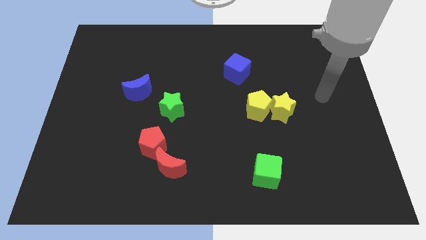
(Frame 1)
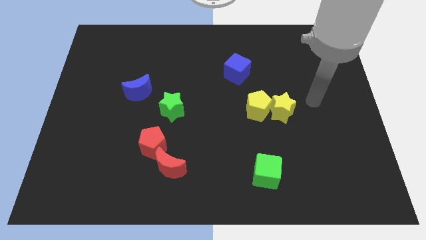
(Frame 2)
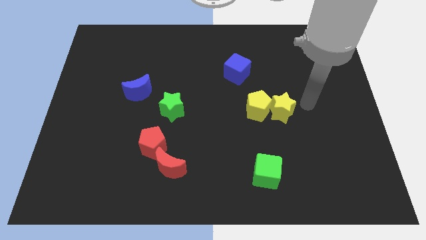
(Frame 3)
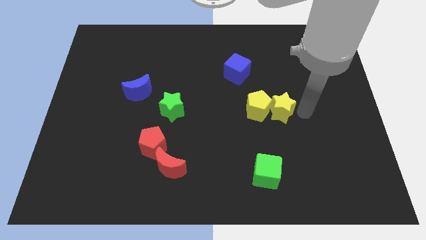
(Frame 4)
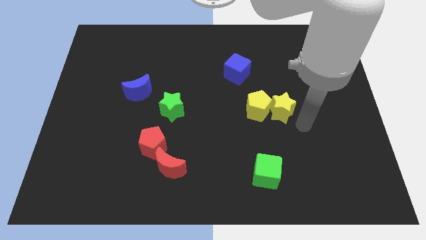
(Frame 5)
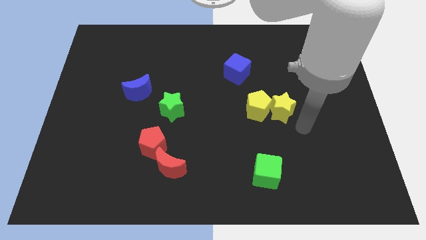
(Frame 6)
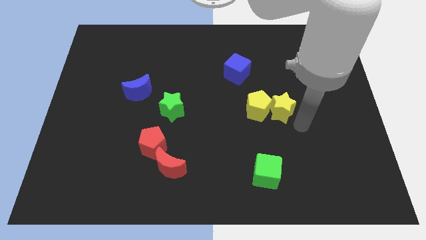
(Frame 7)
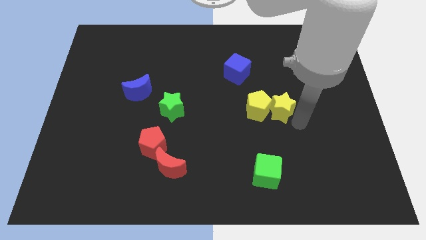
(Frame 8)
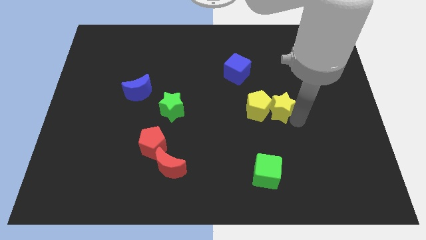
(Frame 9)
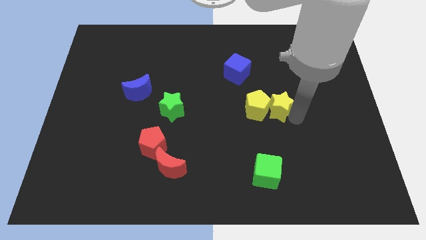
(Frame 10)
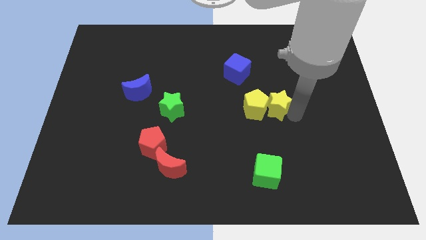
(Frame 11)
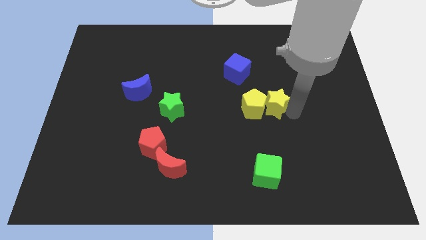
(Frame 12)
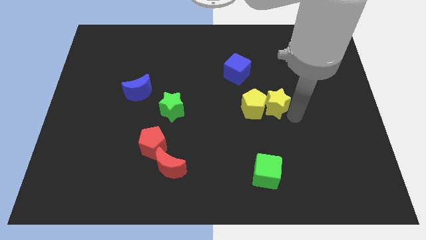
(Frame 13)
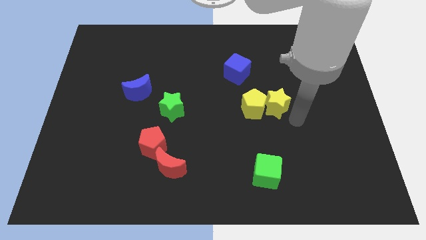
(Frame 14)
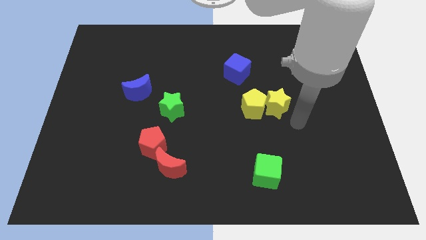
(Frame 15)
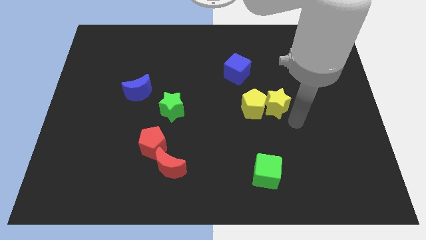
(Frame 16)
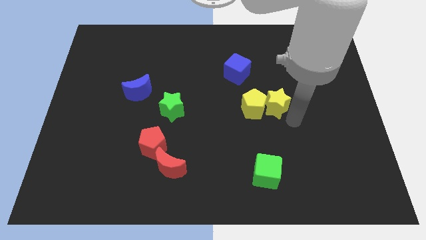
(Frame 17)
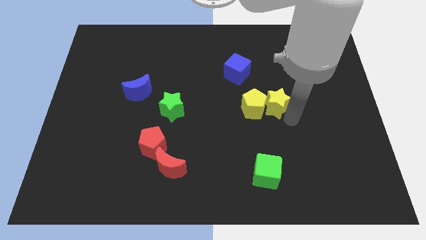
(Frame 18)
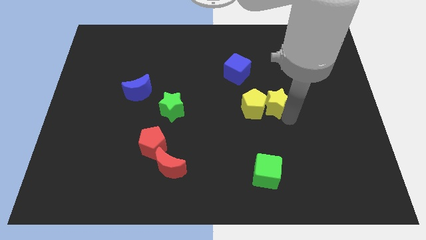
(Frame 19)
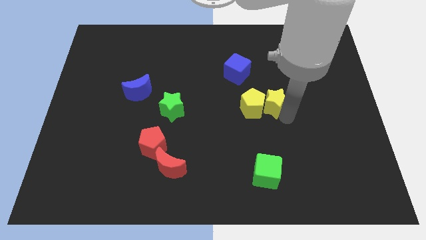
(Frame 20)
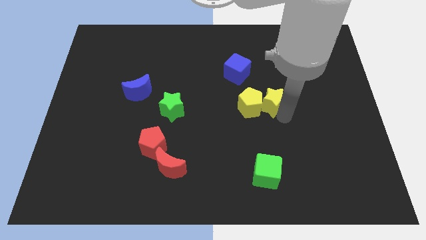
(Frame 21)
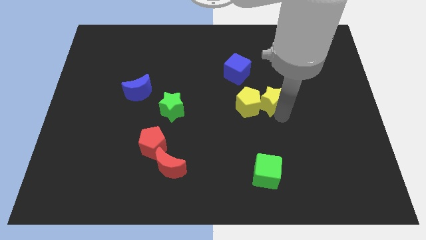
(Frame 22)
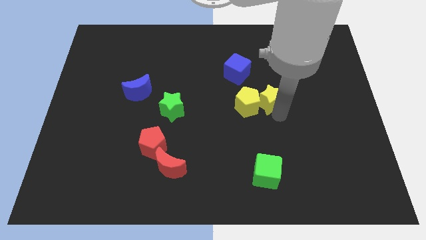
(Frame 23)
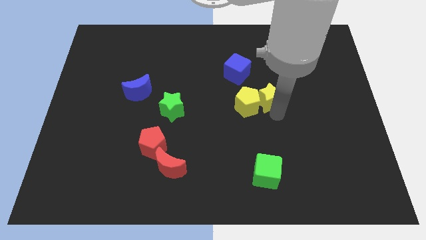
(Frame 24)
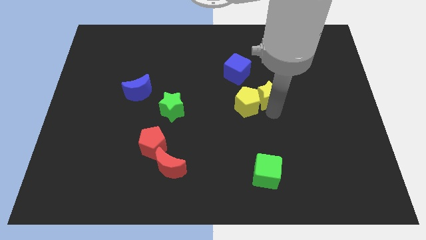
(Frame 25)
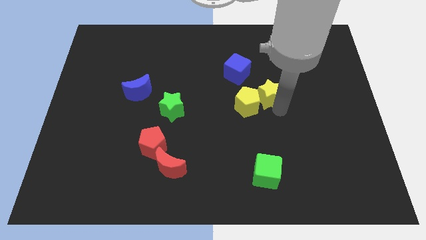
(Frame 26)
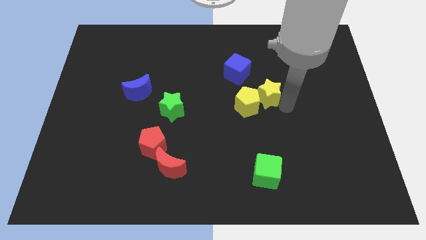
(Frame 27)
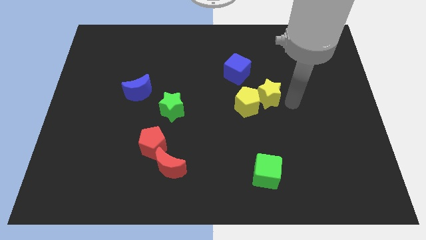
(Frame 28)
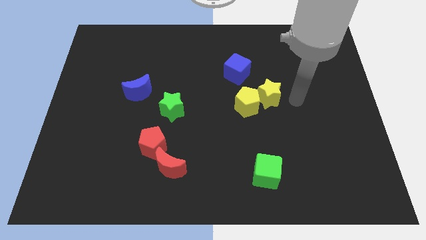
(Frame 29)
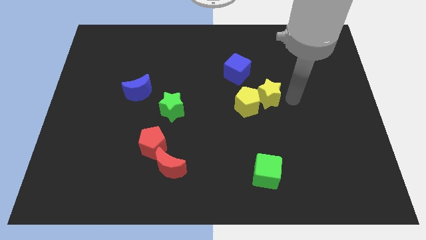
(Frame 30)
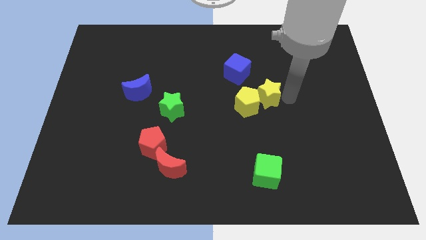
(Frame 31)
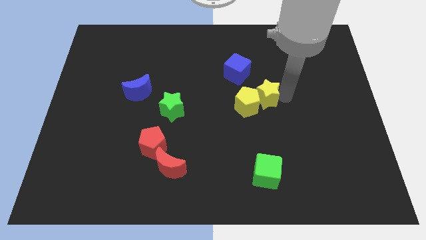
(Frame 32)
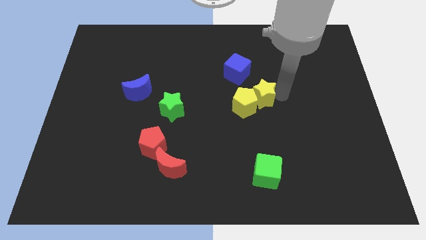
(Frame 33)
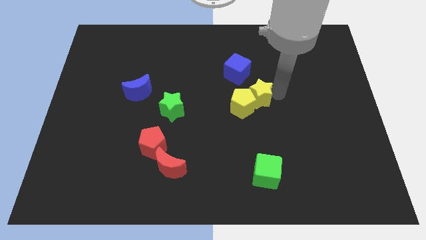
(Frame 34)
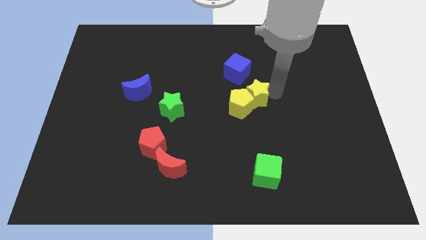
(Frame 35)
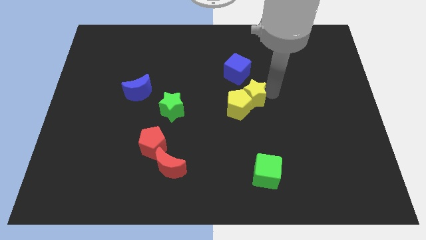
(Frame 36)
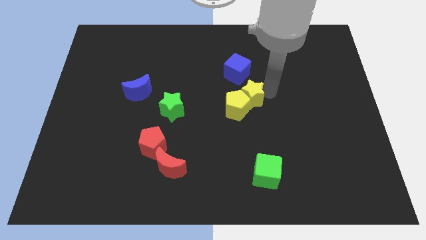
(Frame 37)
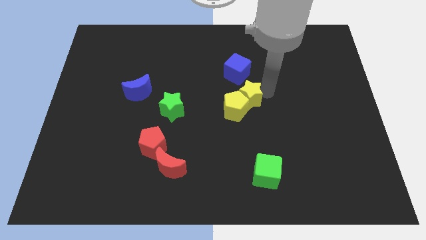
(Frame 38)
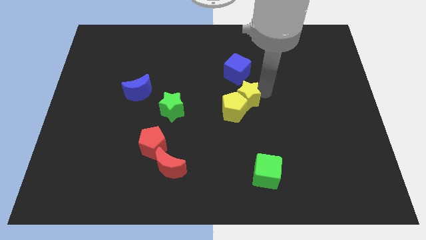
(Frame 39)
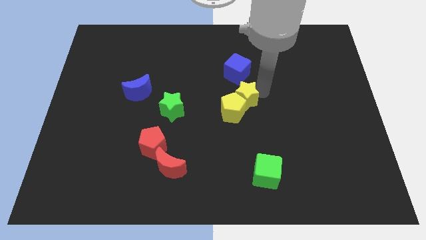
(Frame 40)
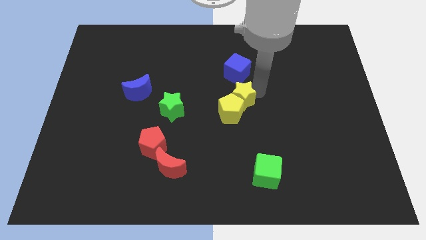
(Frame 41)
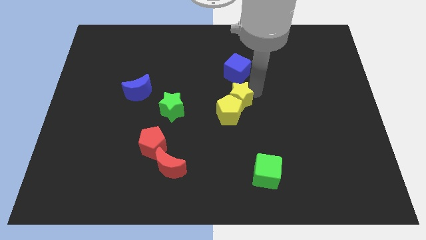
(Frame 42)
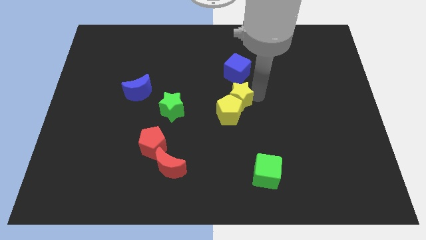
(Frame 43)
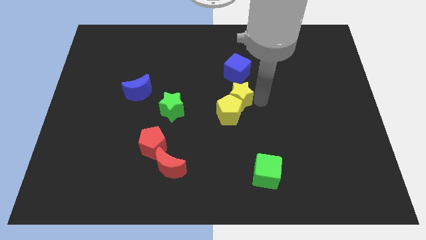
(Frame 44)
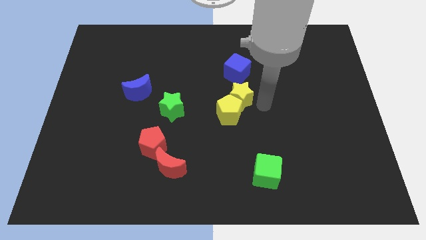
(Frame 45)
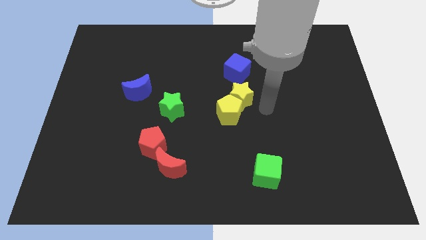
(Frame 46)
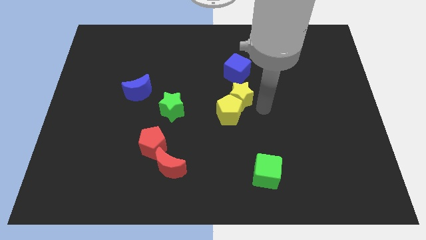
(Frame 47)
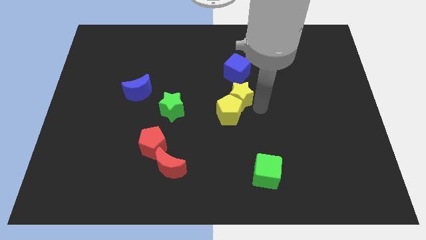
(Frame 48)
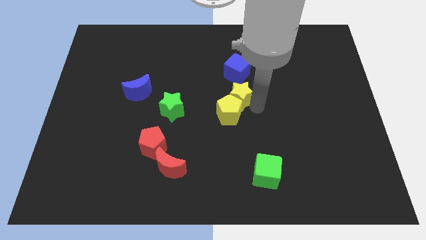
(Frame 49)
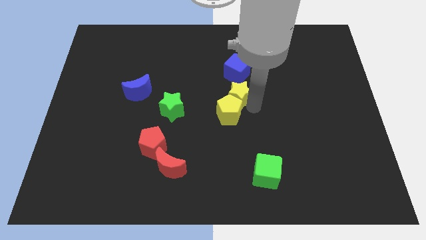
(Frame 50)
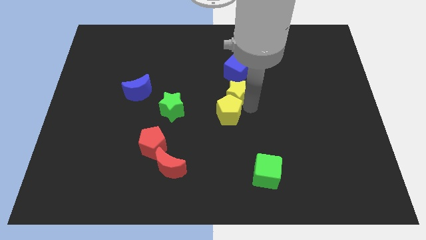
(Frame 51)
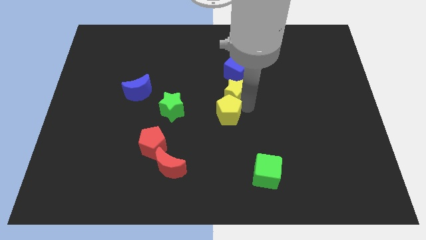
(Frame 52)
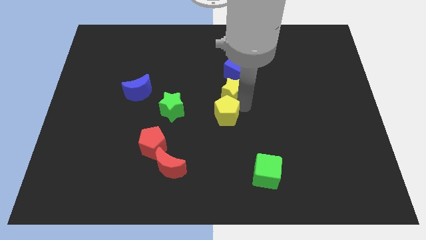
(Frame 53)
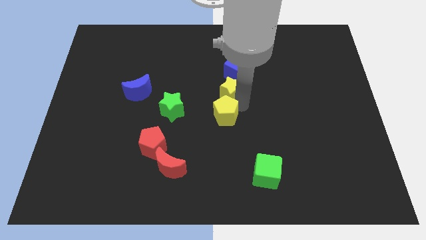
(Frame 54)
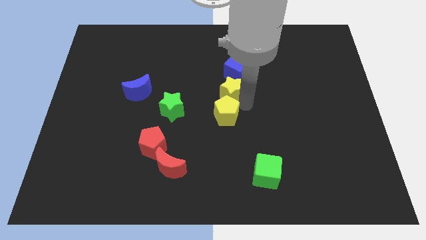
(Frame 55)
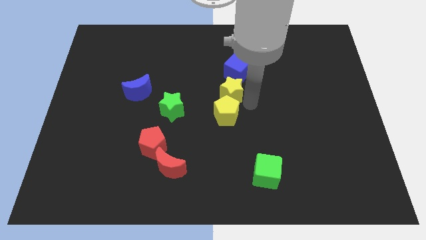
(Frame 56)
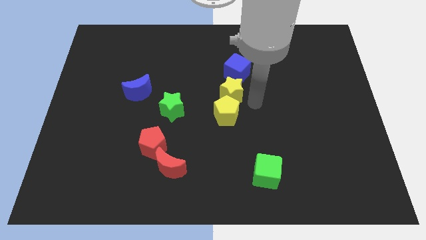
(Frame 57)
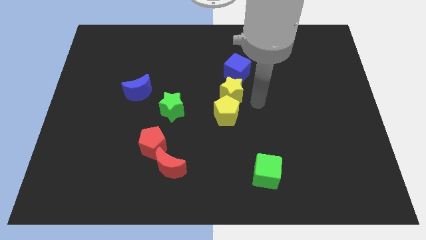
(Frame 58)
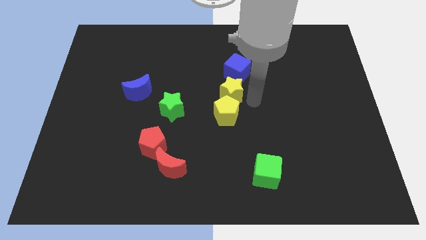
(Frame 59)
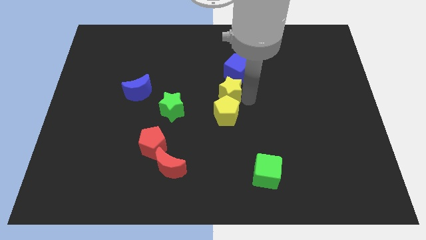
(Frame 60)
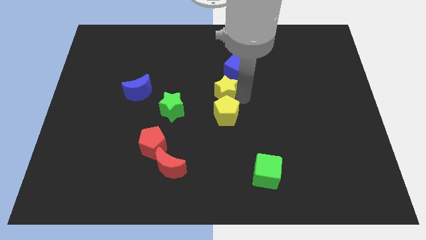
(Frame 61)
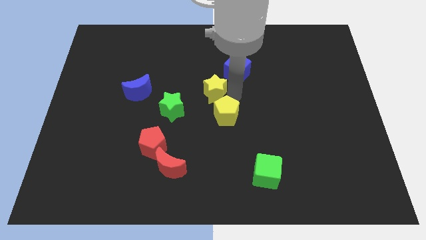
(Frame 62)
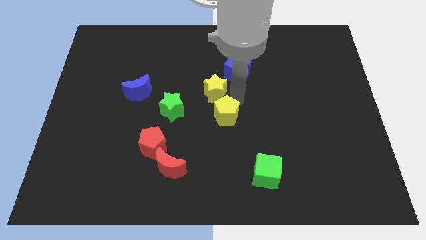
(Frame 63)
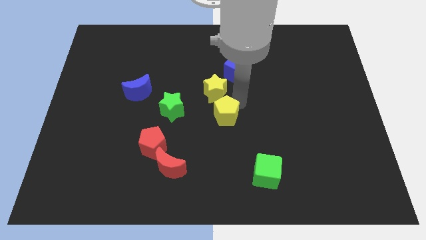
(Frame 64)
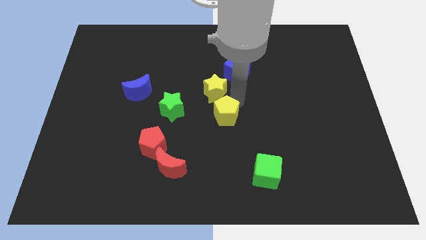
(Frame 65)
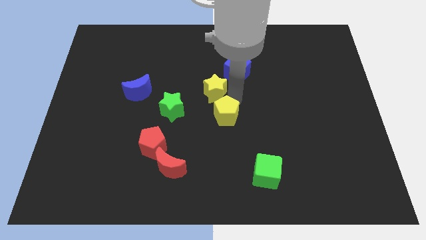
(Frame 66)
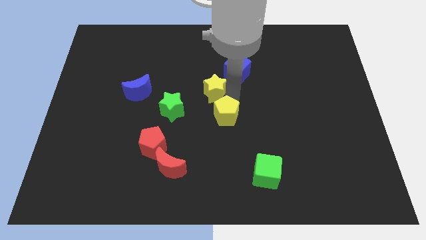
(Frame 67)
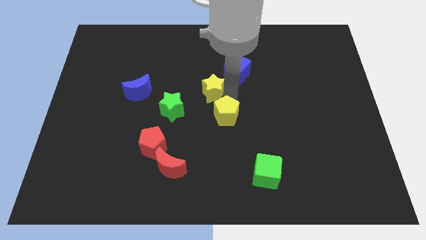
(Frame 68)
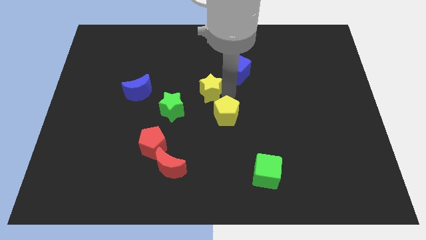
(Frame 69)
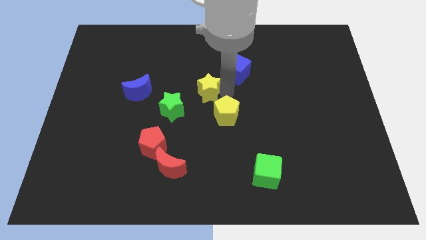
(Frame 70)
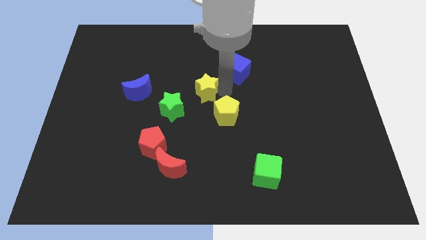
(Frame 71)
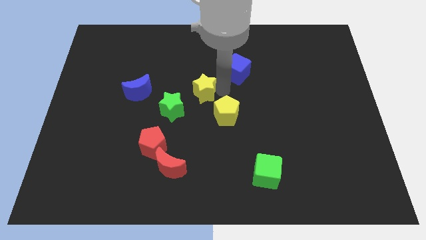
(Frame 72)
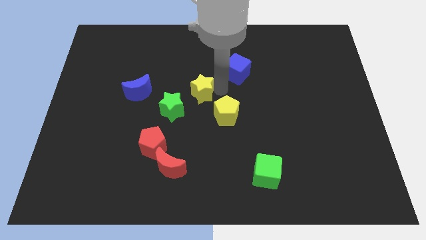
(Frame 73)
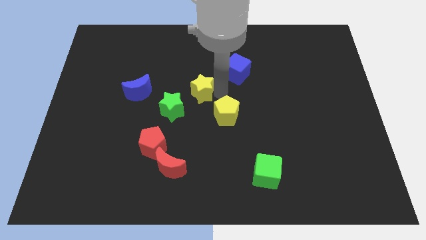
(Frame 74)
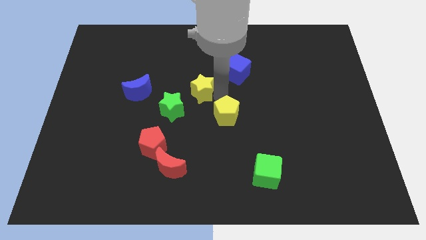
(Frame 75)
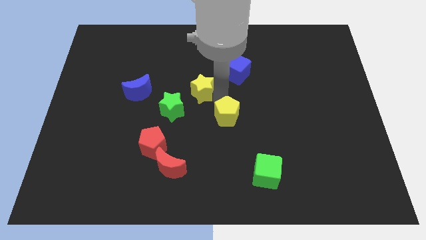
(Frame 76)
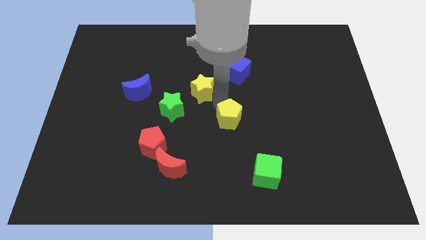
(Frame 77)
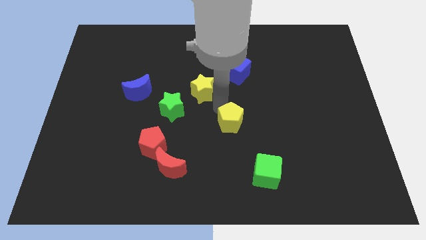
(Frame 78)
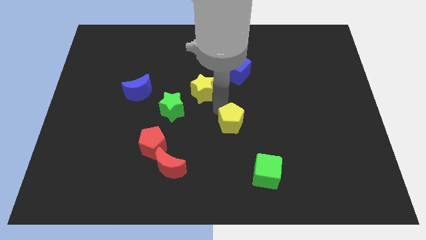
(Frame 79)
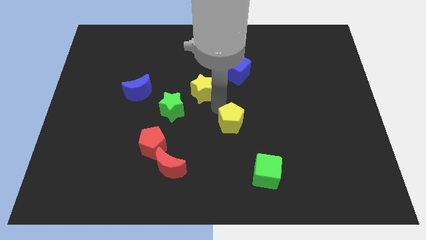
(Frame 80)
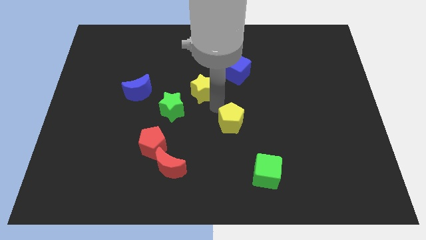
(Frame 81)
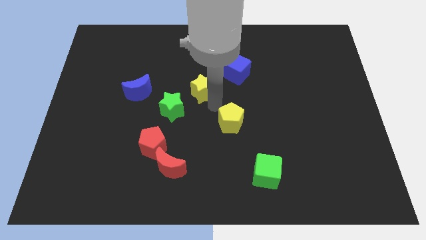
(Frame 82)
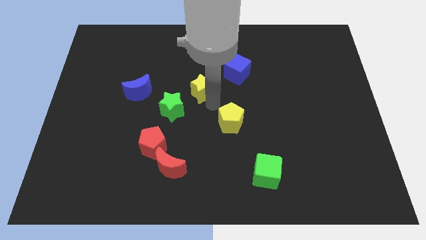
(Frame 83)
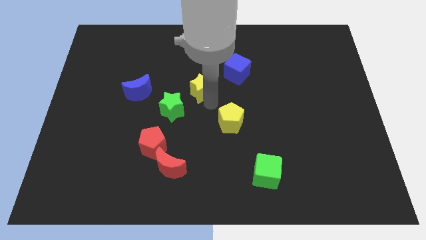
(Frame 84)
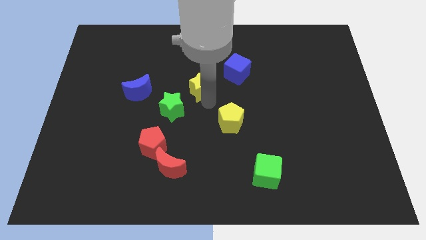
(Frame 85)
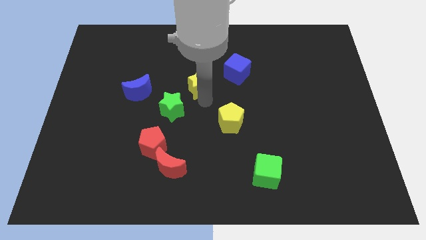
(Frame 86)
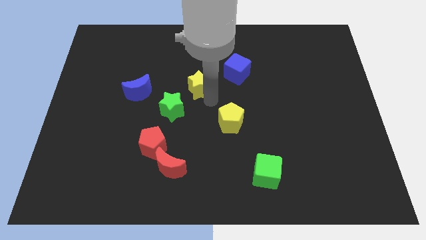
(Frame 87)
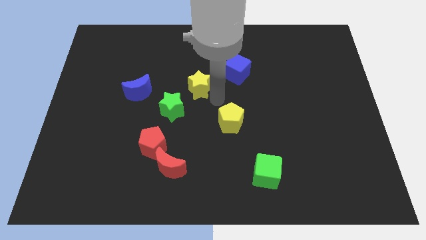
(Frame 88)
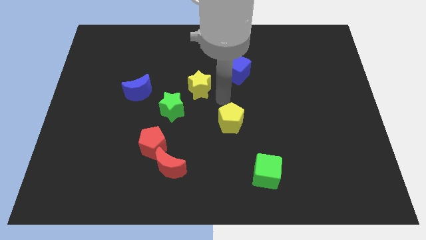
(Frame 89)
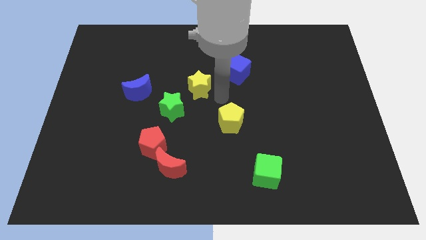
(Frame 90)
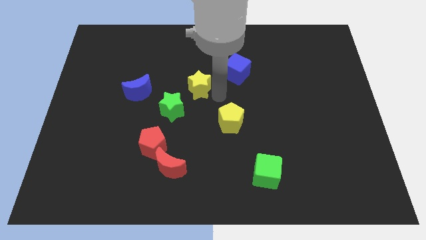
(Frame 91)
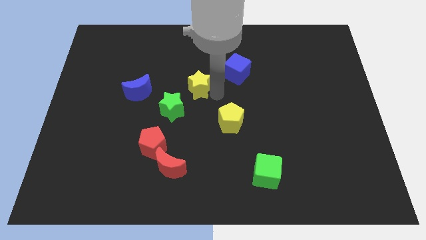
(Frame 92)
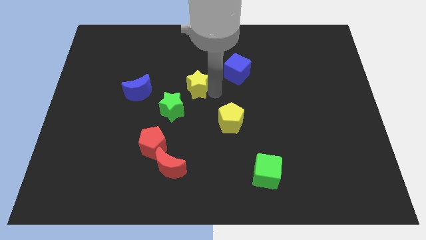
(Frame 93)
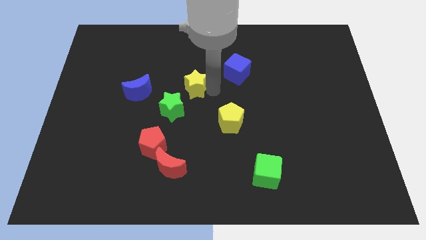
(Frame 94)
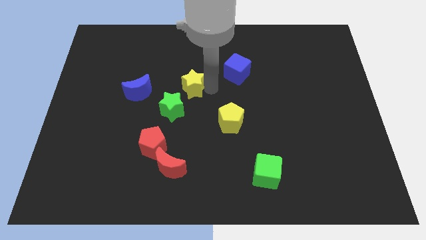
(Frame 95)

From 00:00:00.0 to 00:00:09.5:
move the yellow star above the green star
